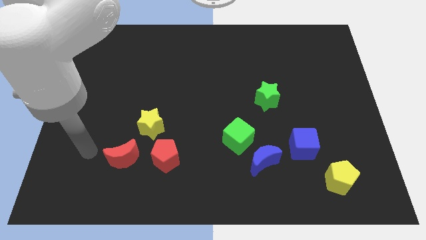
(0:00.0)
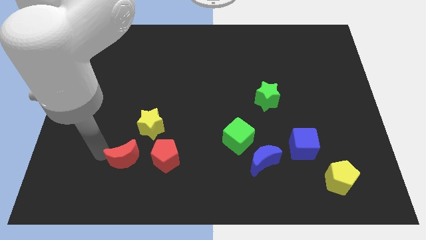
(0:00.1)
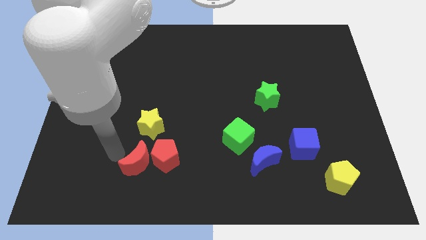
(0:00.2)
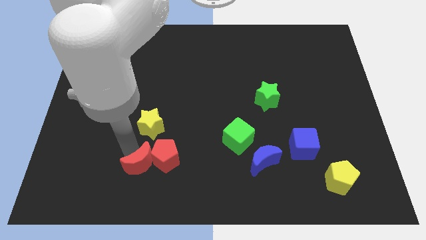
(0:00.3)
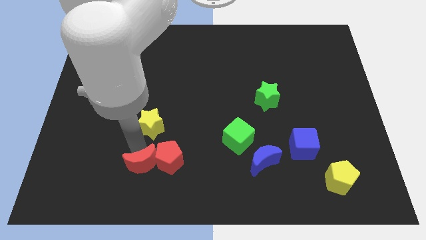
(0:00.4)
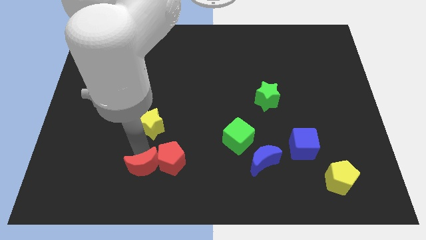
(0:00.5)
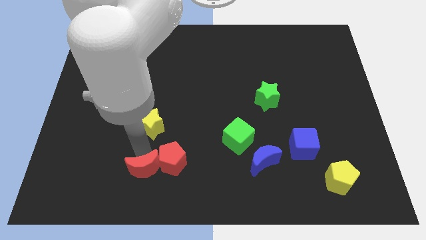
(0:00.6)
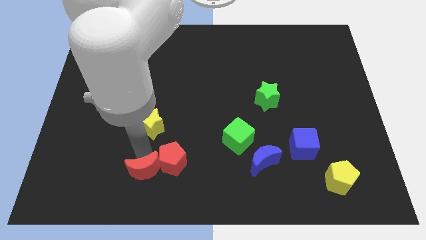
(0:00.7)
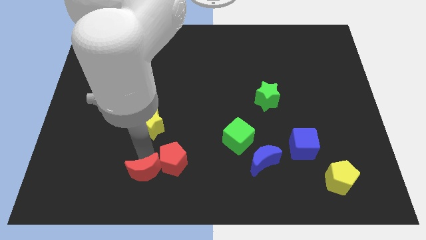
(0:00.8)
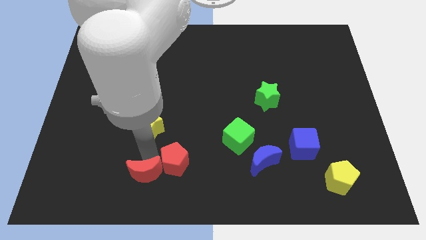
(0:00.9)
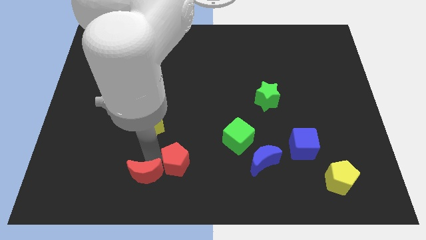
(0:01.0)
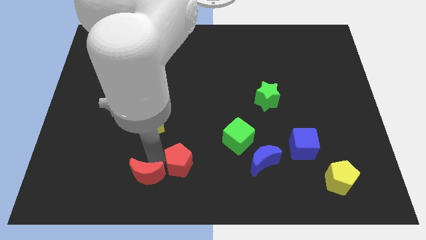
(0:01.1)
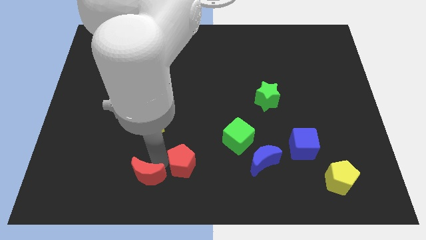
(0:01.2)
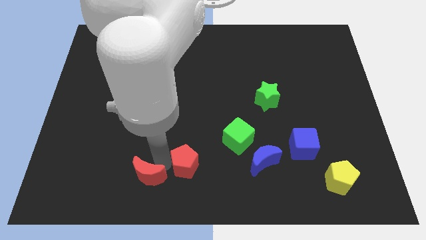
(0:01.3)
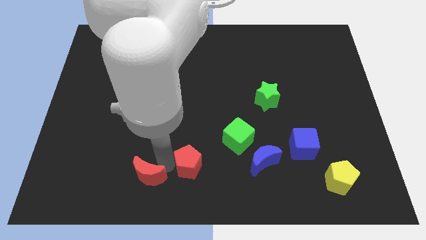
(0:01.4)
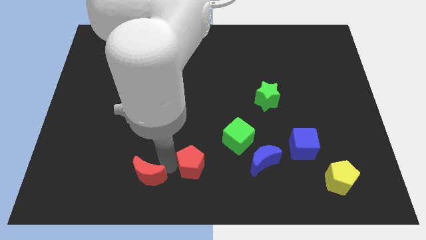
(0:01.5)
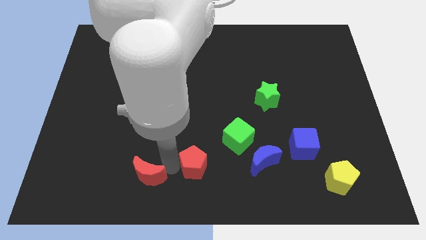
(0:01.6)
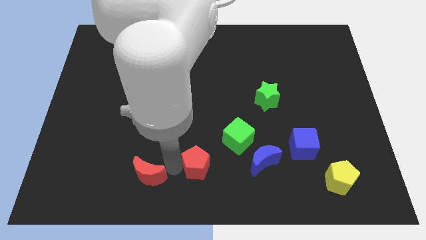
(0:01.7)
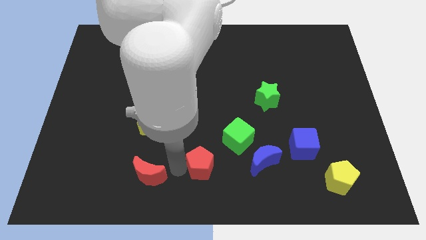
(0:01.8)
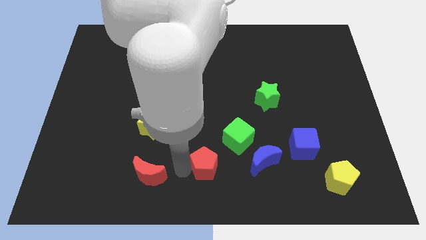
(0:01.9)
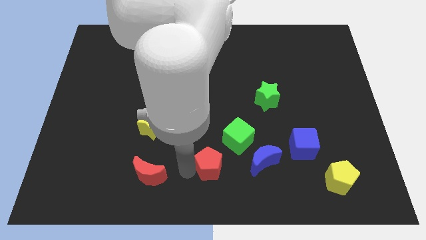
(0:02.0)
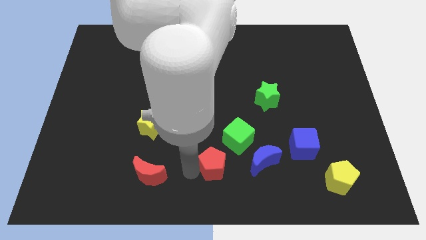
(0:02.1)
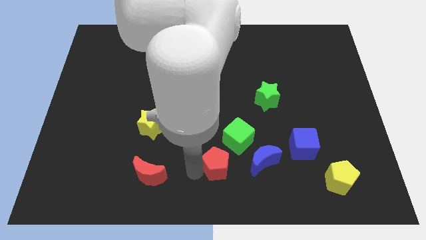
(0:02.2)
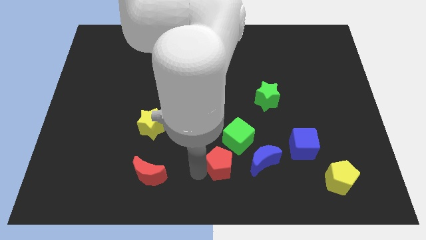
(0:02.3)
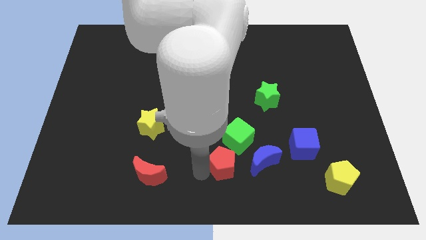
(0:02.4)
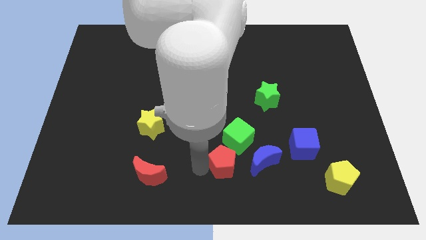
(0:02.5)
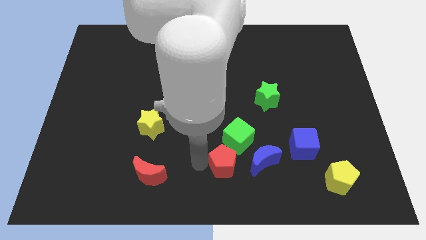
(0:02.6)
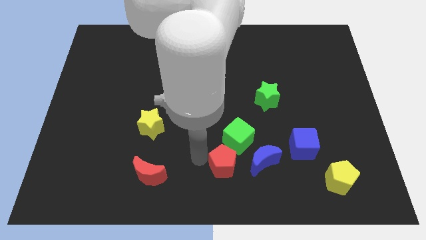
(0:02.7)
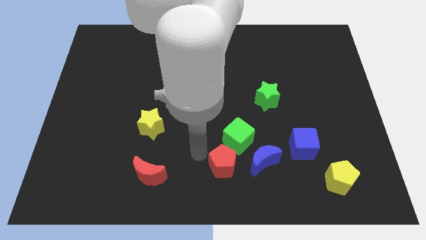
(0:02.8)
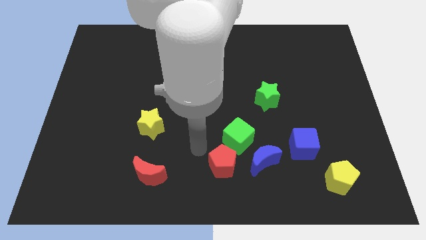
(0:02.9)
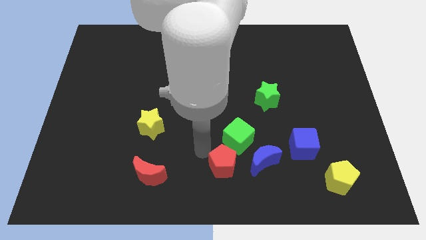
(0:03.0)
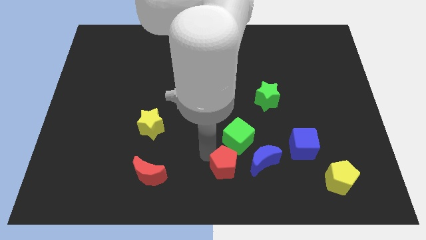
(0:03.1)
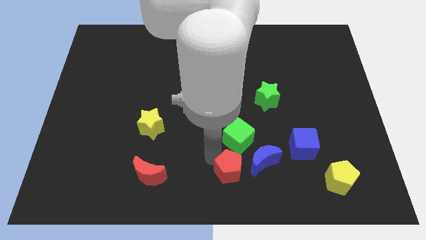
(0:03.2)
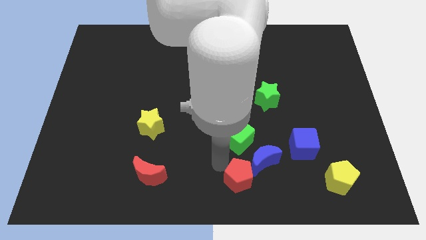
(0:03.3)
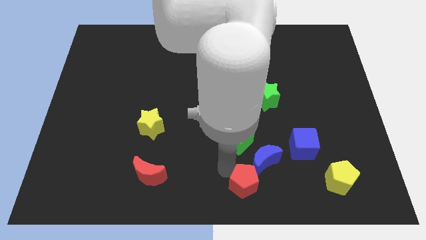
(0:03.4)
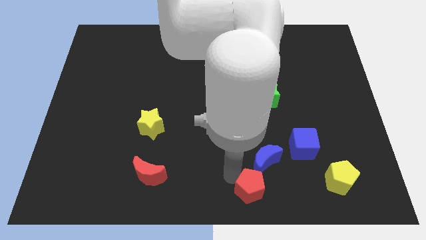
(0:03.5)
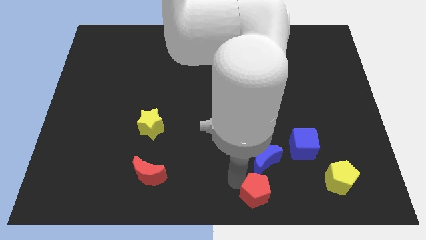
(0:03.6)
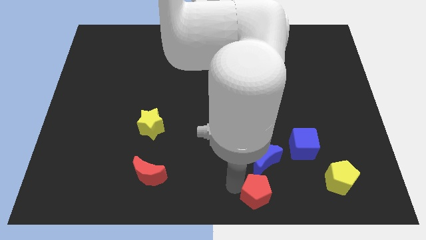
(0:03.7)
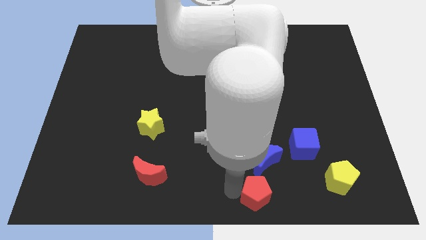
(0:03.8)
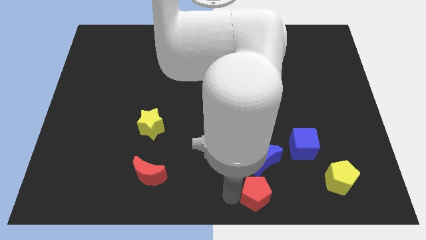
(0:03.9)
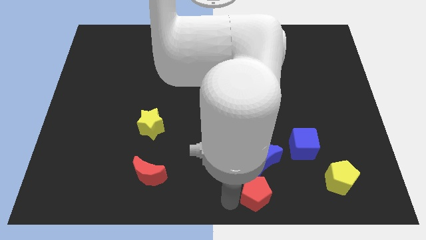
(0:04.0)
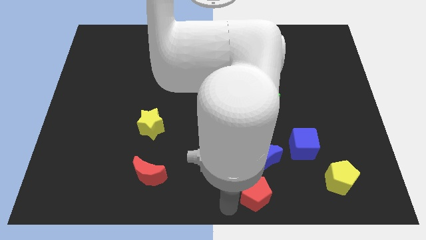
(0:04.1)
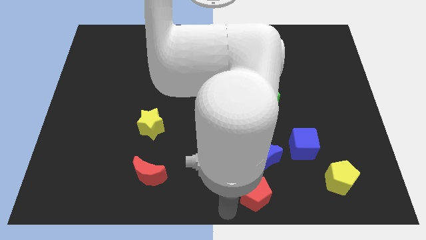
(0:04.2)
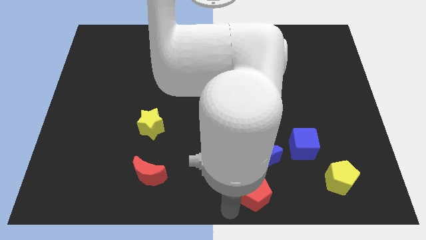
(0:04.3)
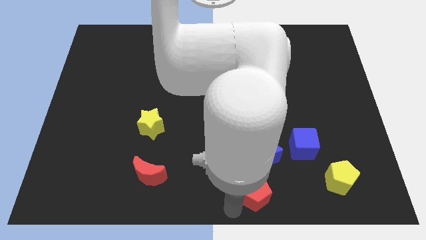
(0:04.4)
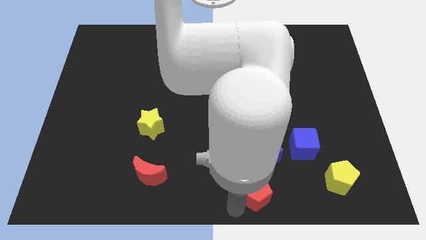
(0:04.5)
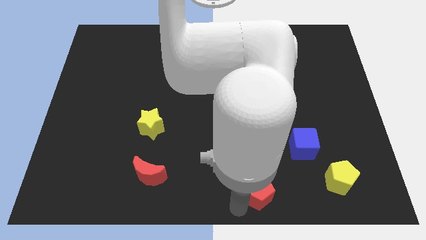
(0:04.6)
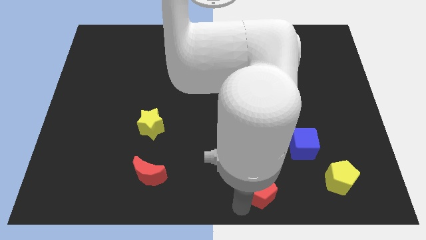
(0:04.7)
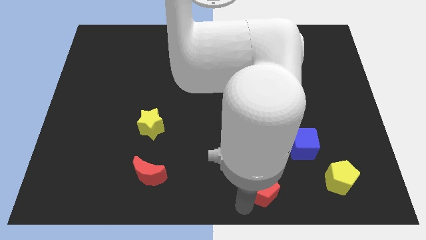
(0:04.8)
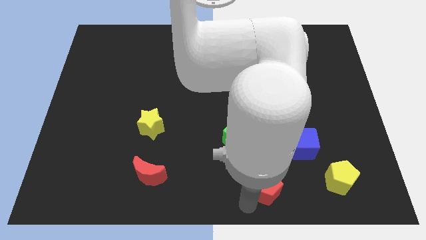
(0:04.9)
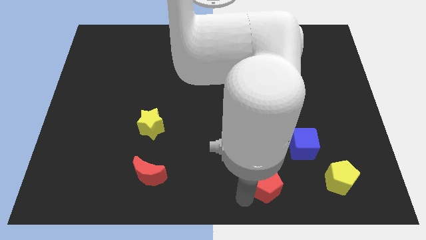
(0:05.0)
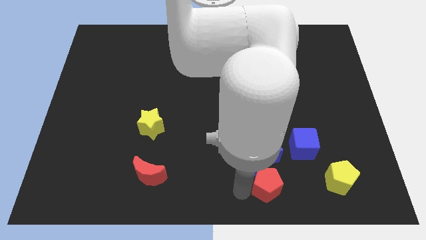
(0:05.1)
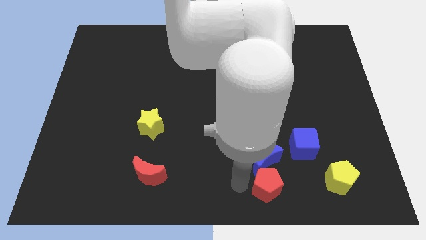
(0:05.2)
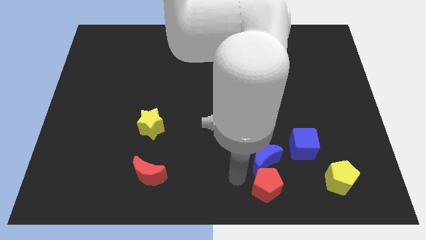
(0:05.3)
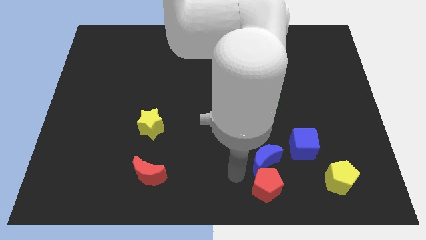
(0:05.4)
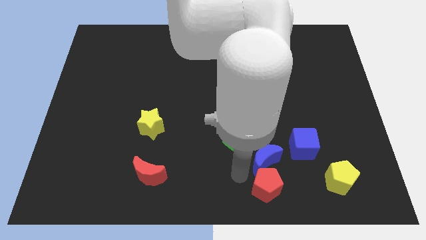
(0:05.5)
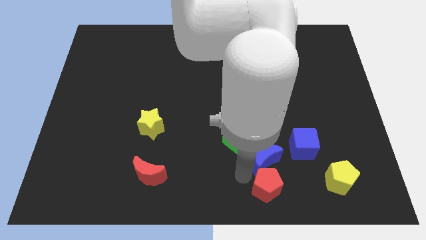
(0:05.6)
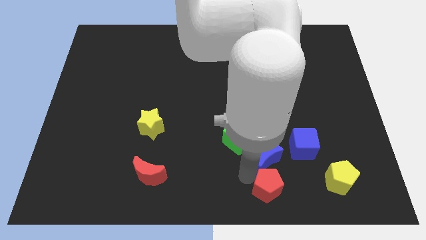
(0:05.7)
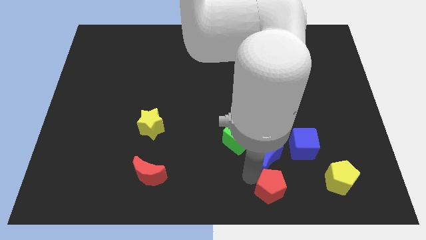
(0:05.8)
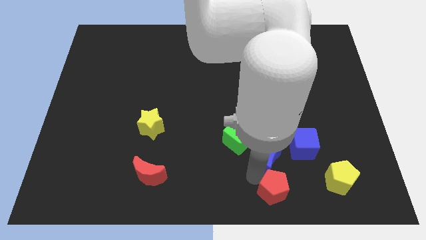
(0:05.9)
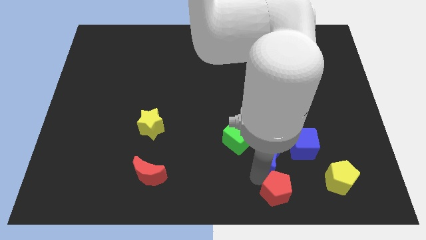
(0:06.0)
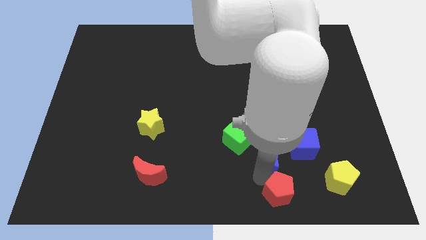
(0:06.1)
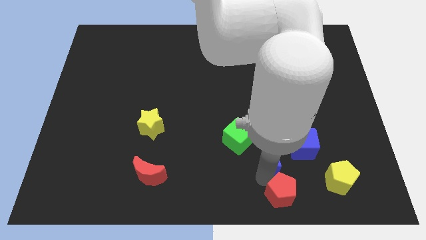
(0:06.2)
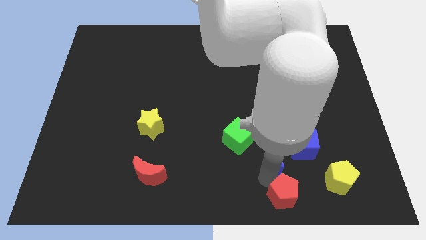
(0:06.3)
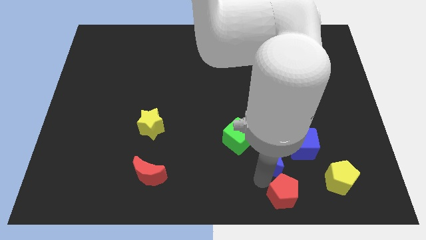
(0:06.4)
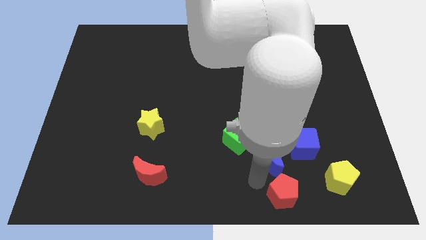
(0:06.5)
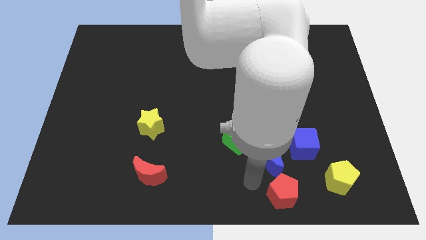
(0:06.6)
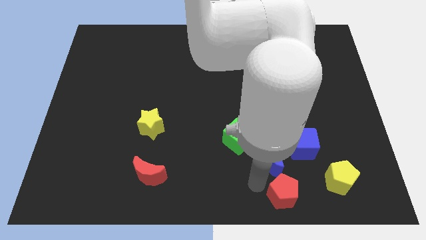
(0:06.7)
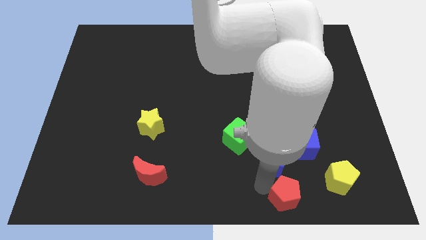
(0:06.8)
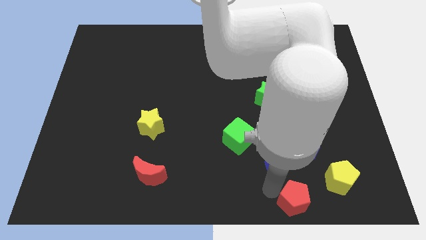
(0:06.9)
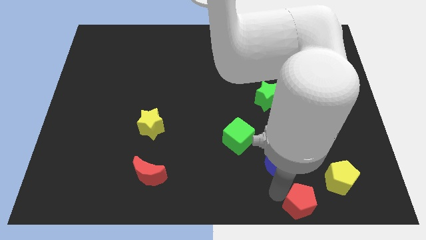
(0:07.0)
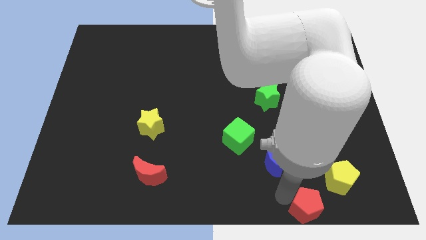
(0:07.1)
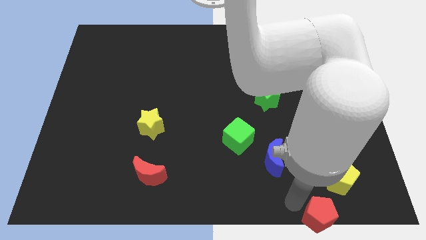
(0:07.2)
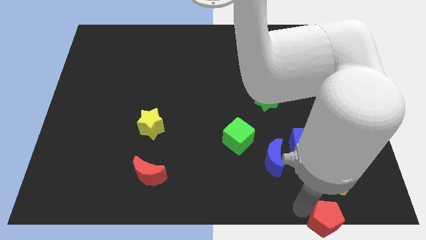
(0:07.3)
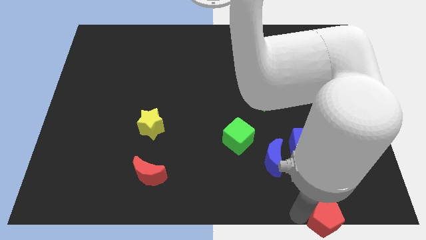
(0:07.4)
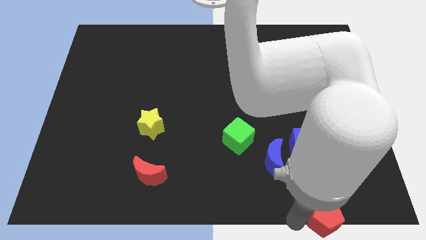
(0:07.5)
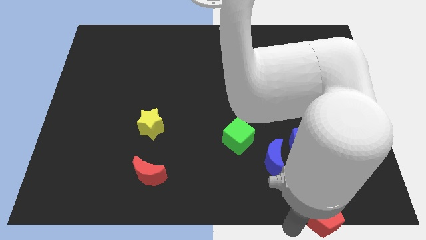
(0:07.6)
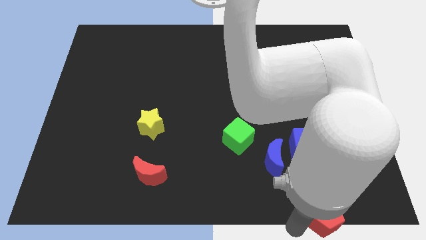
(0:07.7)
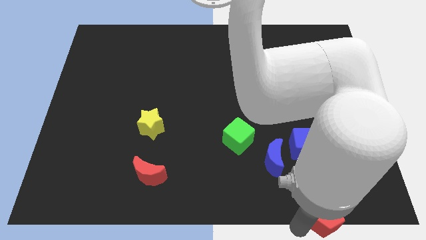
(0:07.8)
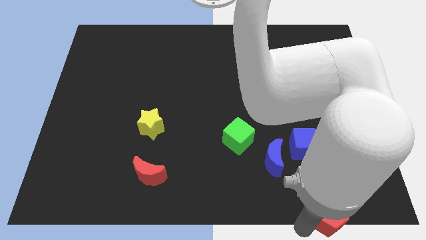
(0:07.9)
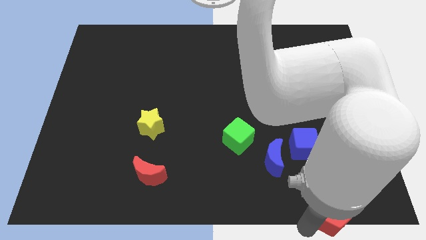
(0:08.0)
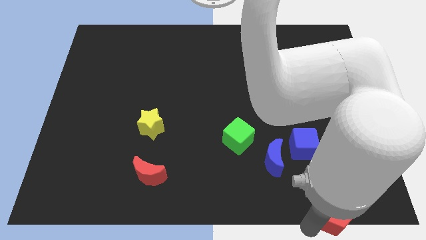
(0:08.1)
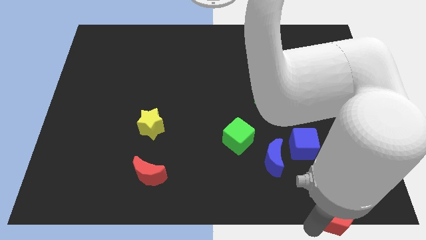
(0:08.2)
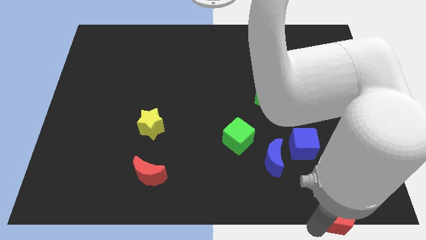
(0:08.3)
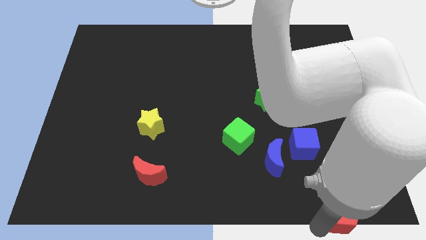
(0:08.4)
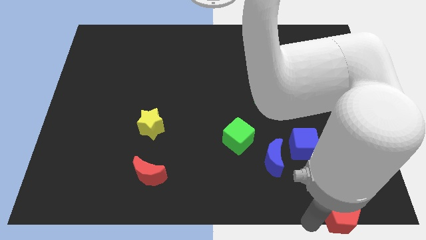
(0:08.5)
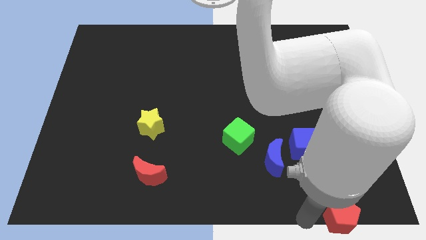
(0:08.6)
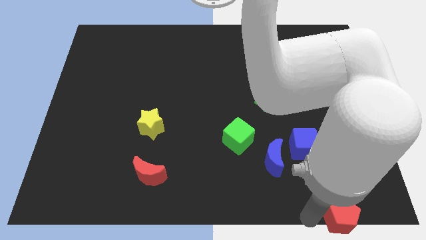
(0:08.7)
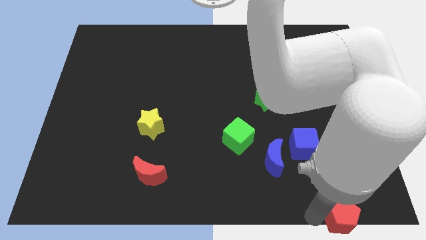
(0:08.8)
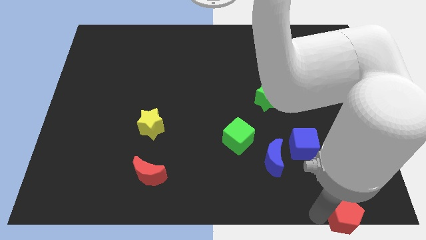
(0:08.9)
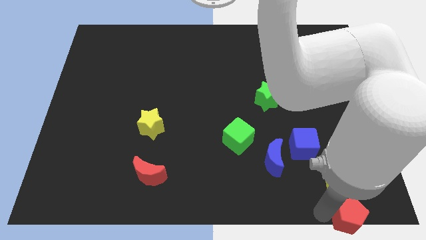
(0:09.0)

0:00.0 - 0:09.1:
push the red pentagon to the bottom right of the board
